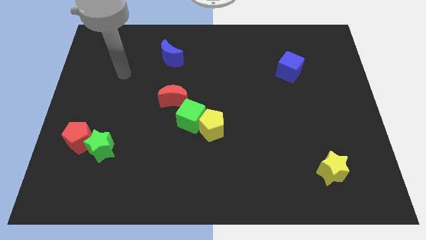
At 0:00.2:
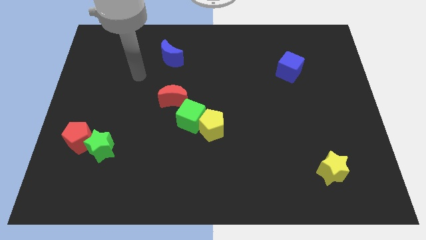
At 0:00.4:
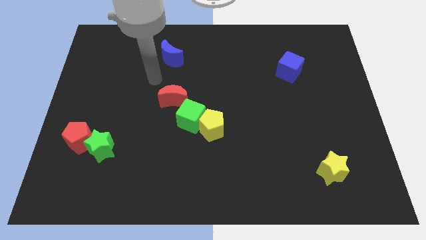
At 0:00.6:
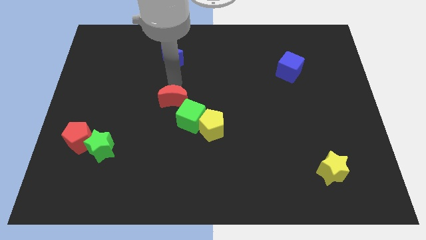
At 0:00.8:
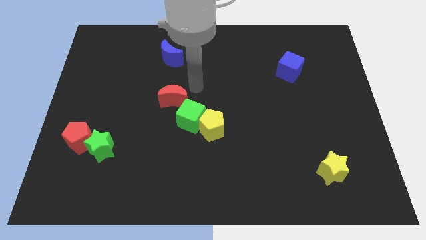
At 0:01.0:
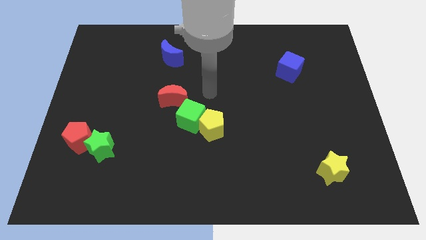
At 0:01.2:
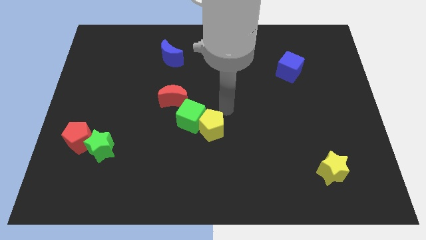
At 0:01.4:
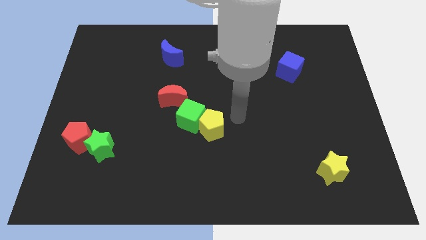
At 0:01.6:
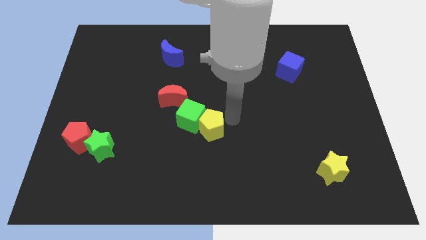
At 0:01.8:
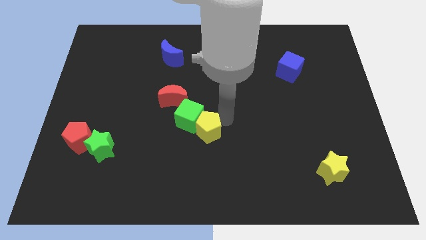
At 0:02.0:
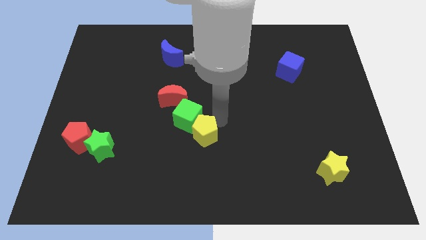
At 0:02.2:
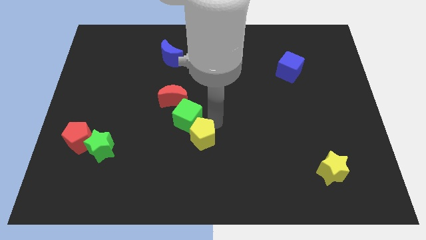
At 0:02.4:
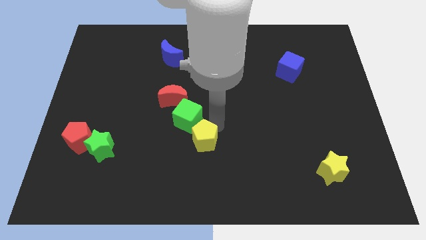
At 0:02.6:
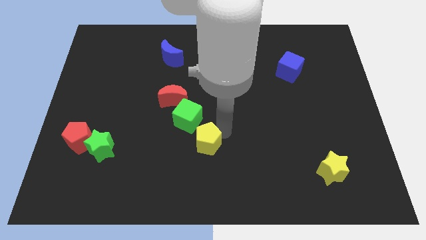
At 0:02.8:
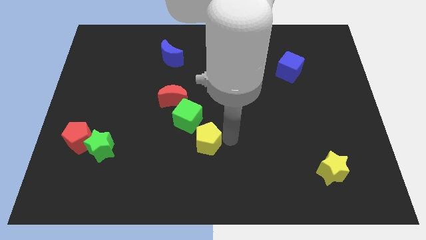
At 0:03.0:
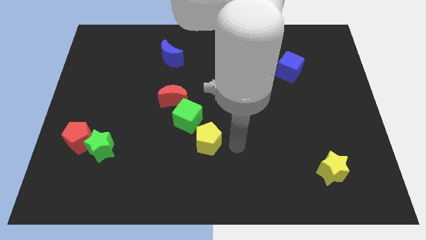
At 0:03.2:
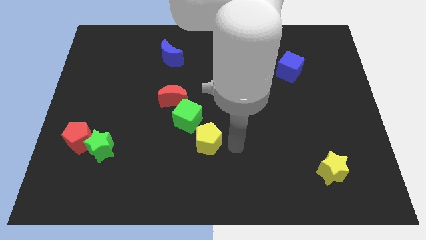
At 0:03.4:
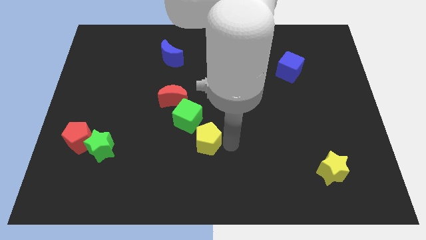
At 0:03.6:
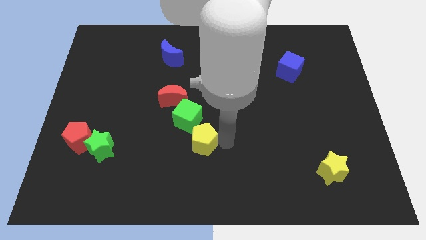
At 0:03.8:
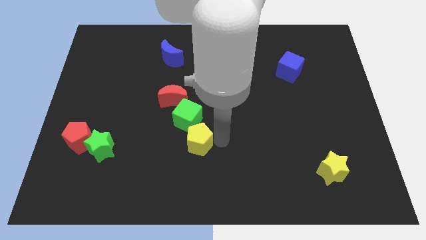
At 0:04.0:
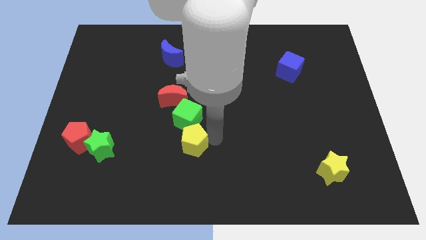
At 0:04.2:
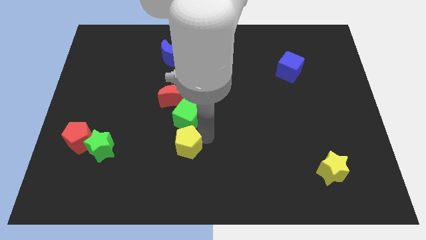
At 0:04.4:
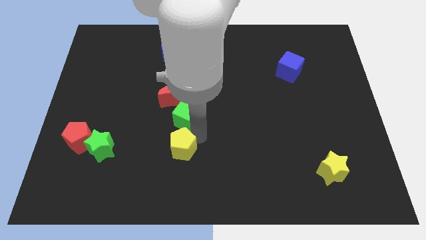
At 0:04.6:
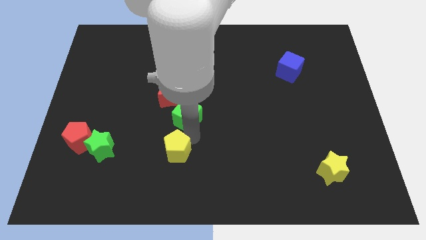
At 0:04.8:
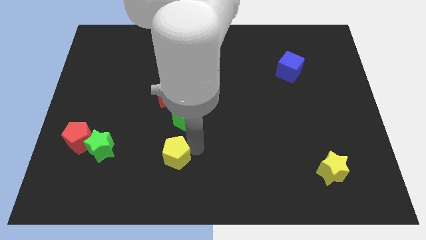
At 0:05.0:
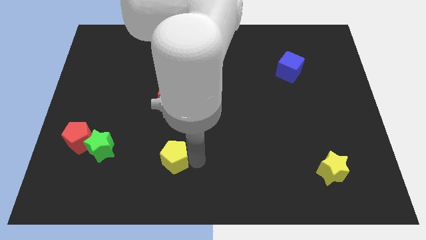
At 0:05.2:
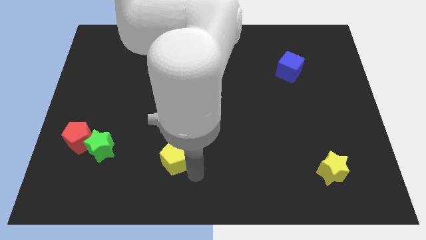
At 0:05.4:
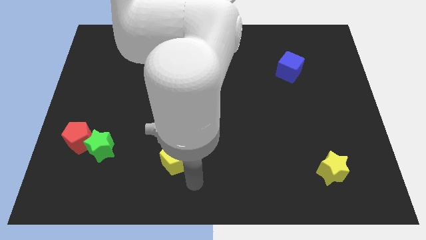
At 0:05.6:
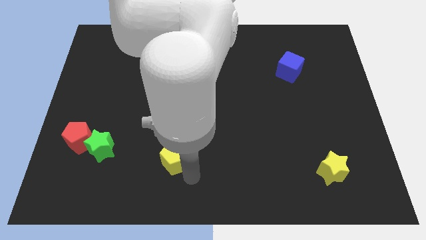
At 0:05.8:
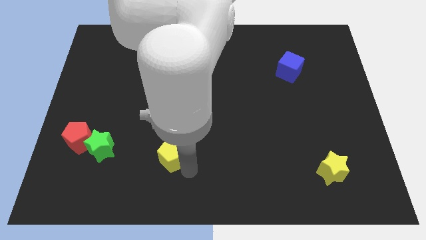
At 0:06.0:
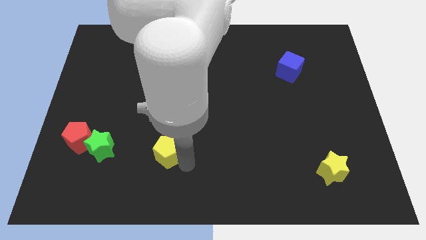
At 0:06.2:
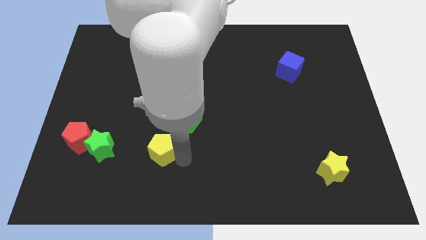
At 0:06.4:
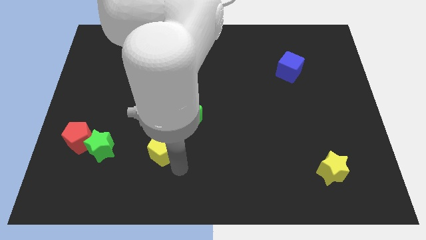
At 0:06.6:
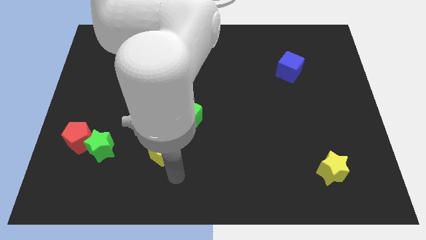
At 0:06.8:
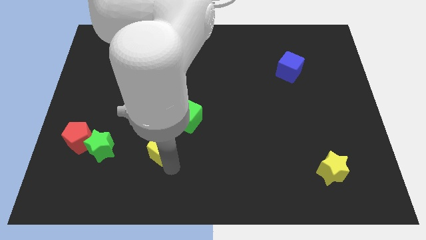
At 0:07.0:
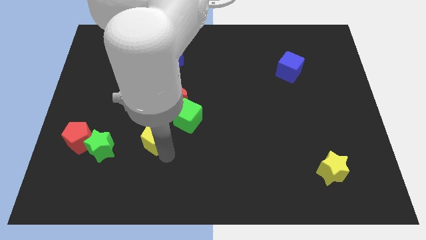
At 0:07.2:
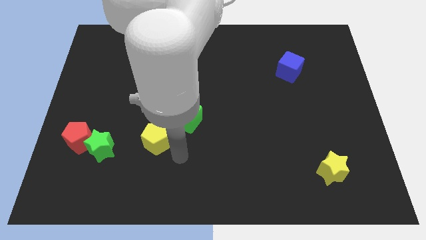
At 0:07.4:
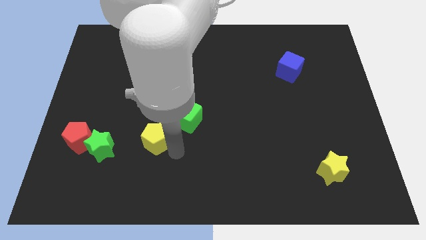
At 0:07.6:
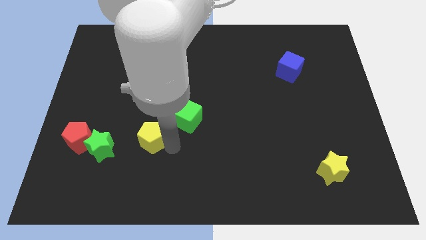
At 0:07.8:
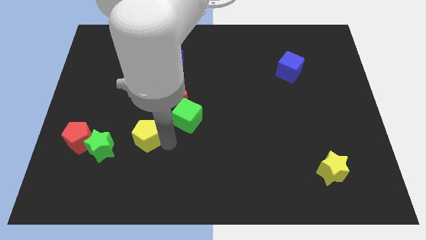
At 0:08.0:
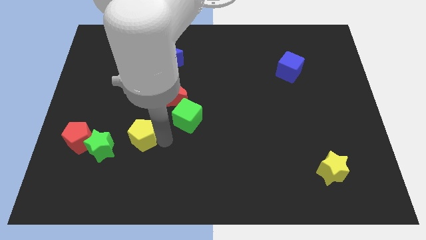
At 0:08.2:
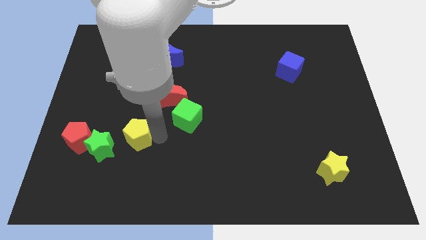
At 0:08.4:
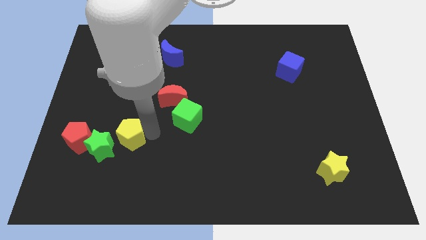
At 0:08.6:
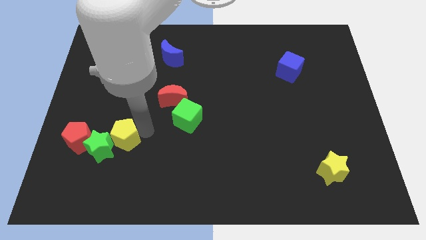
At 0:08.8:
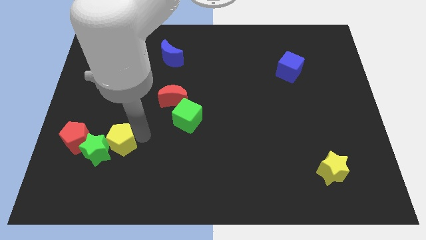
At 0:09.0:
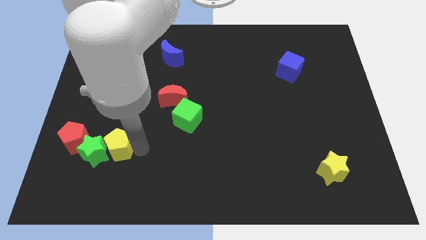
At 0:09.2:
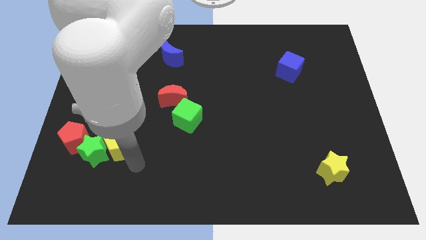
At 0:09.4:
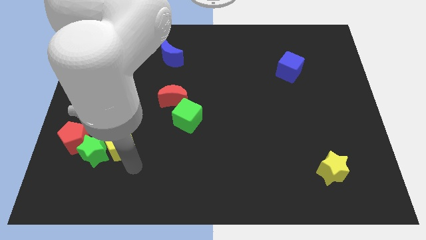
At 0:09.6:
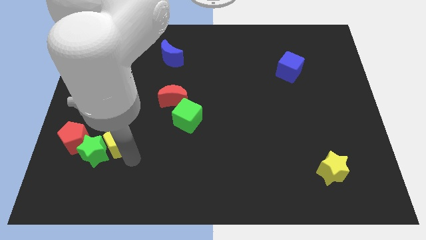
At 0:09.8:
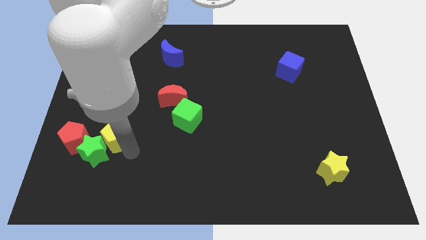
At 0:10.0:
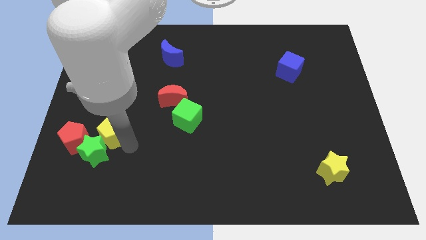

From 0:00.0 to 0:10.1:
move the yellow pentagon to the top right side of the red pentagon

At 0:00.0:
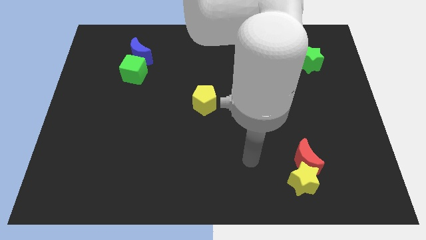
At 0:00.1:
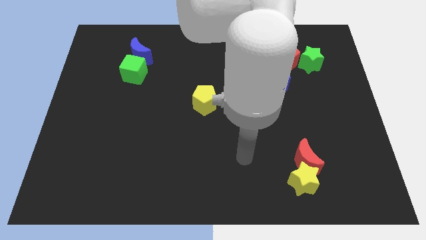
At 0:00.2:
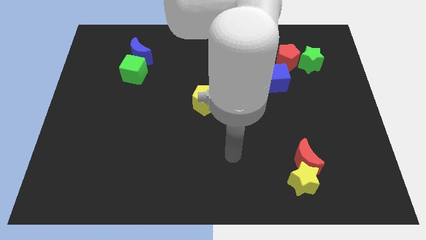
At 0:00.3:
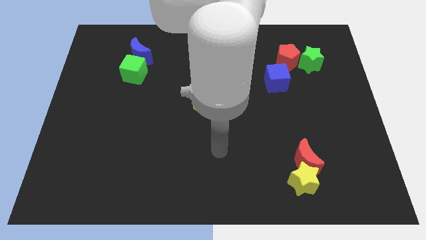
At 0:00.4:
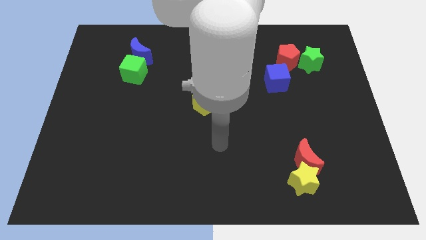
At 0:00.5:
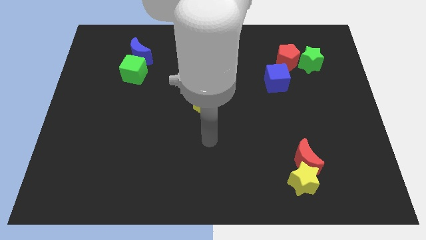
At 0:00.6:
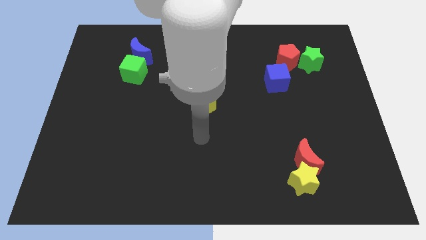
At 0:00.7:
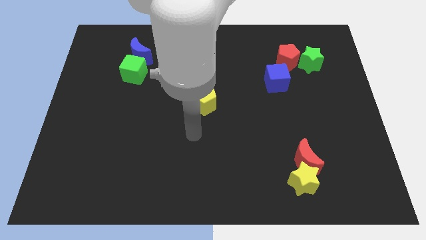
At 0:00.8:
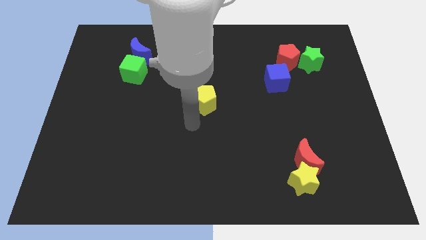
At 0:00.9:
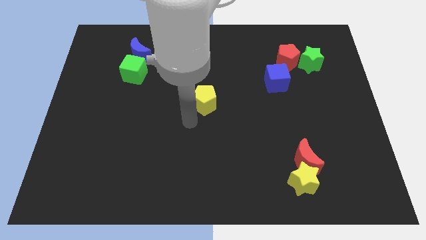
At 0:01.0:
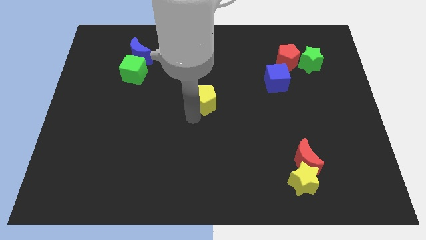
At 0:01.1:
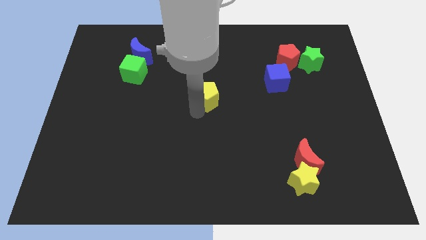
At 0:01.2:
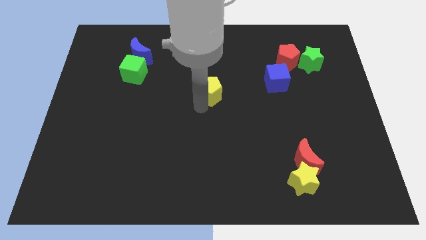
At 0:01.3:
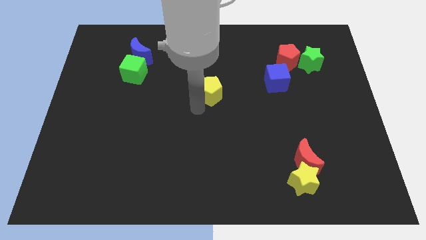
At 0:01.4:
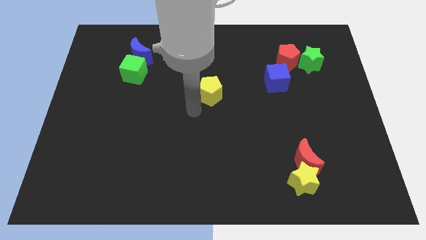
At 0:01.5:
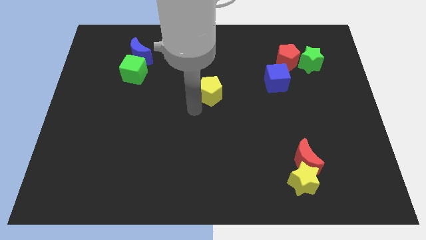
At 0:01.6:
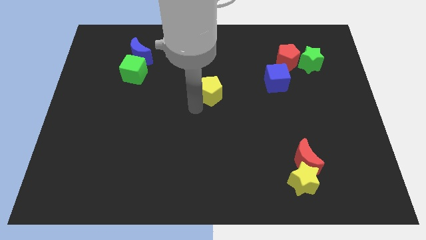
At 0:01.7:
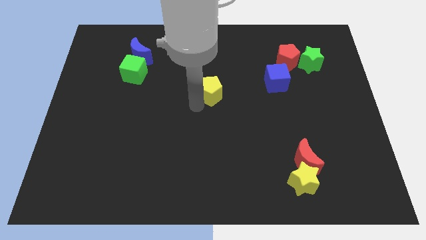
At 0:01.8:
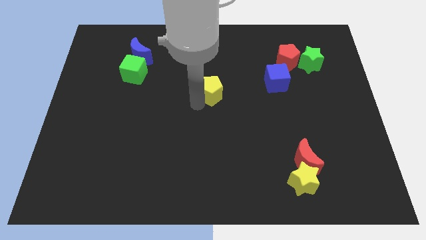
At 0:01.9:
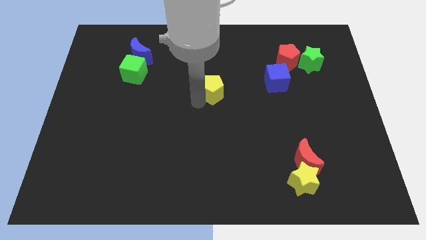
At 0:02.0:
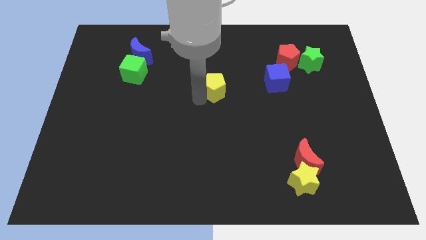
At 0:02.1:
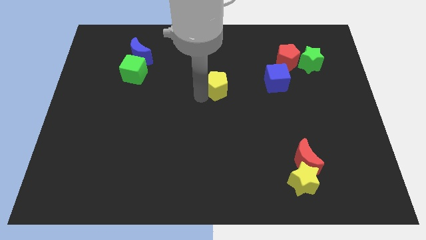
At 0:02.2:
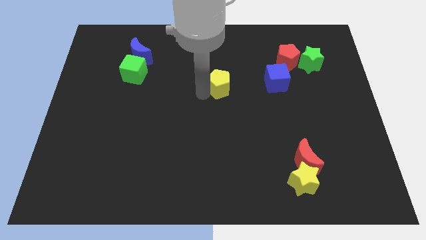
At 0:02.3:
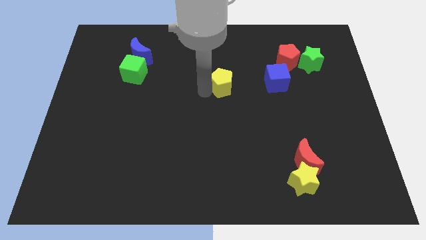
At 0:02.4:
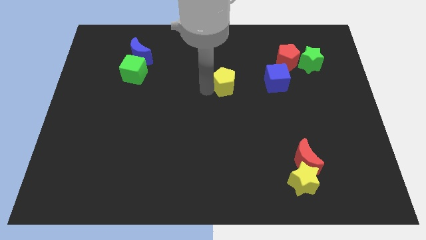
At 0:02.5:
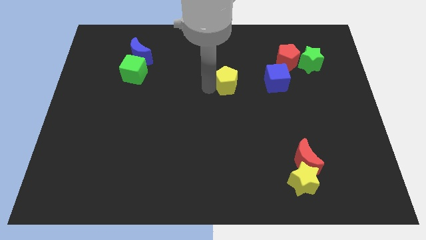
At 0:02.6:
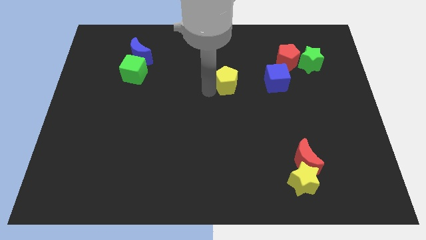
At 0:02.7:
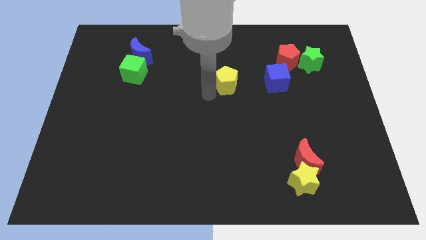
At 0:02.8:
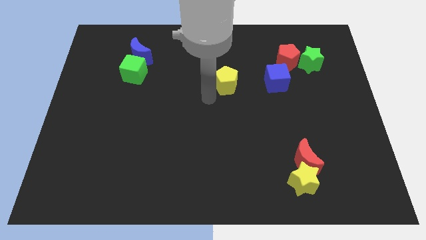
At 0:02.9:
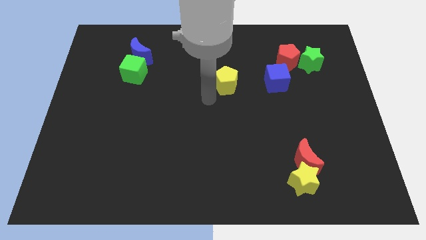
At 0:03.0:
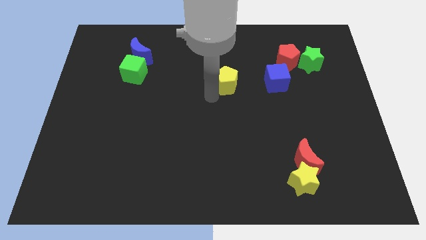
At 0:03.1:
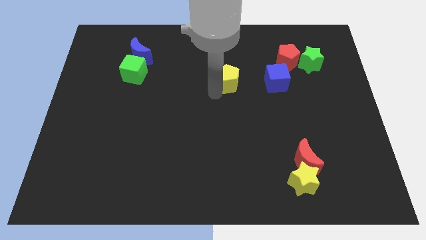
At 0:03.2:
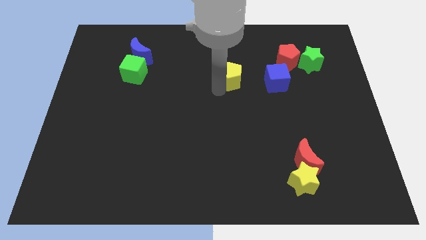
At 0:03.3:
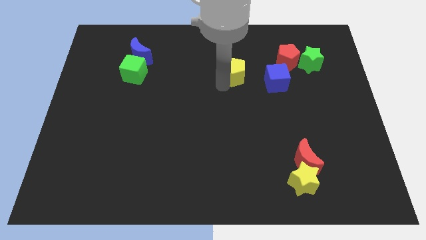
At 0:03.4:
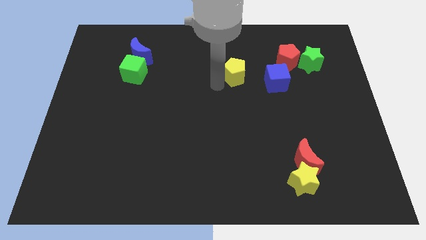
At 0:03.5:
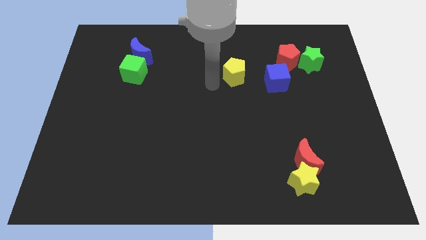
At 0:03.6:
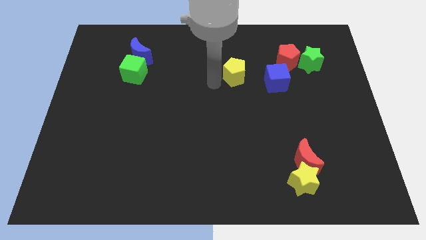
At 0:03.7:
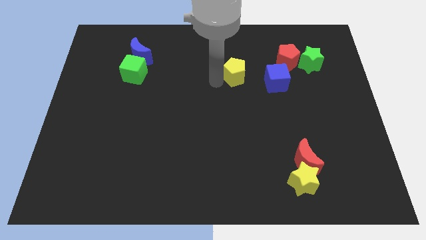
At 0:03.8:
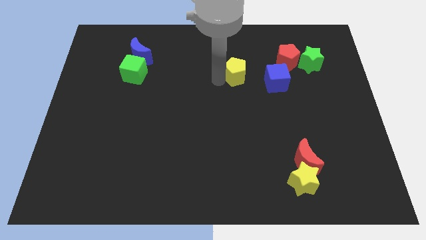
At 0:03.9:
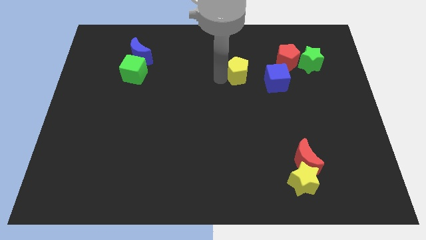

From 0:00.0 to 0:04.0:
put the yellow pentagon to the top left of the blue cube
